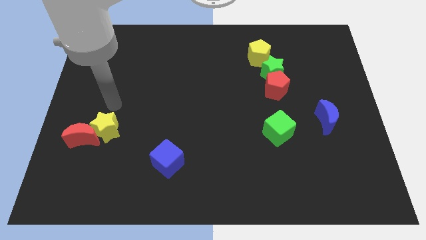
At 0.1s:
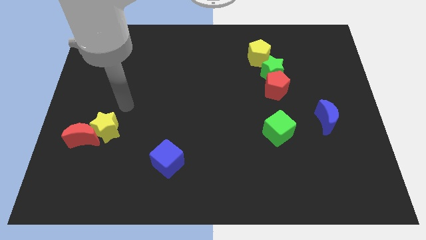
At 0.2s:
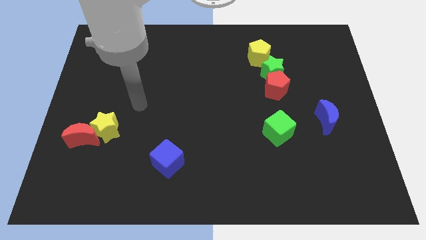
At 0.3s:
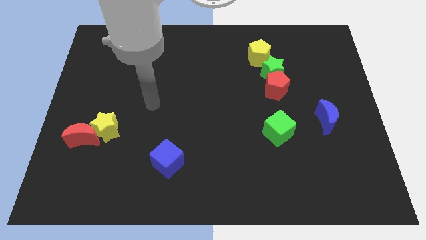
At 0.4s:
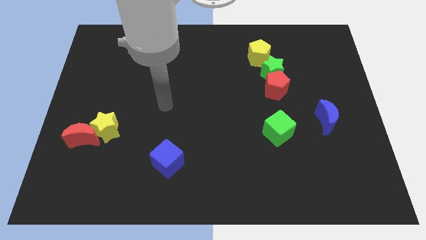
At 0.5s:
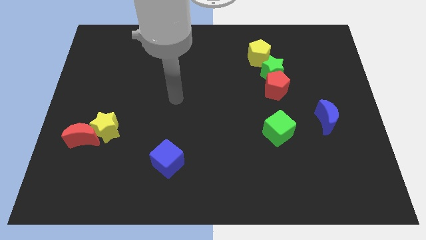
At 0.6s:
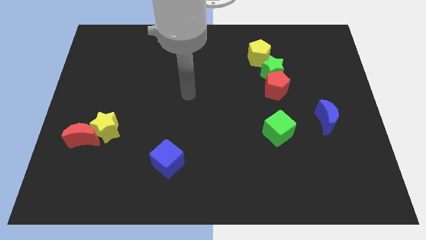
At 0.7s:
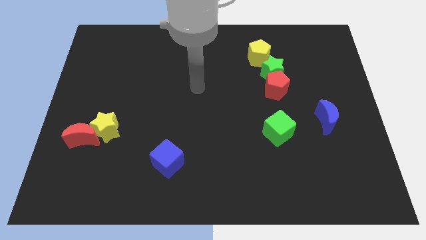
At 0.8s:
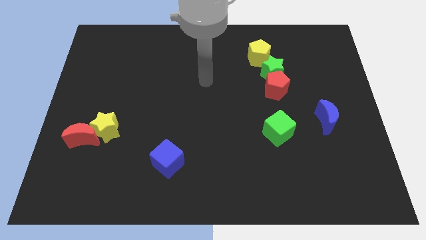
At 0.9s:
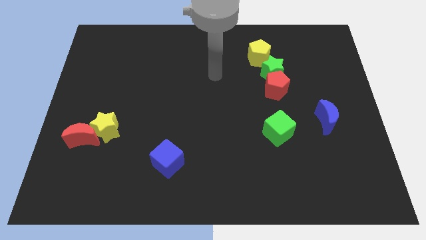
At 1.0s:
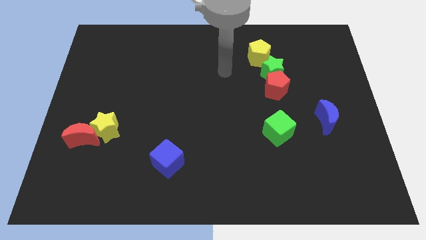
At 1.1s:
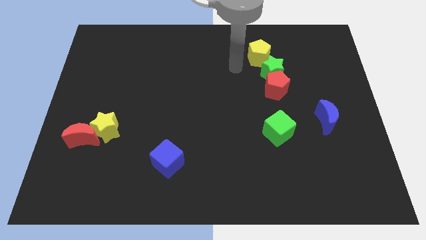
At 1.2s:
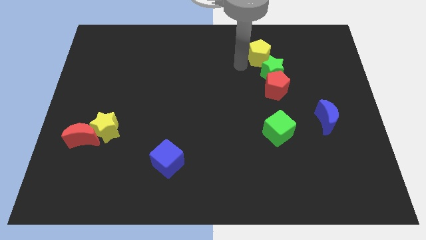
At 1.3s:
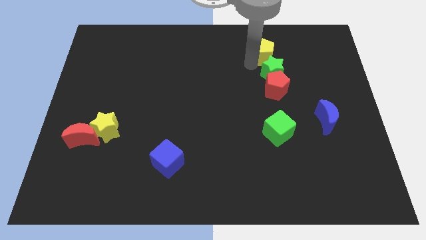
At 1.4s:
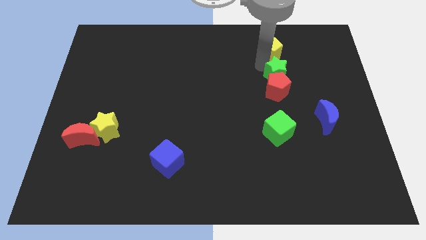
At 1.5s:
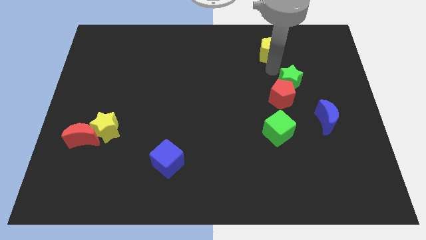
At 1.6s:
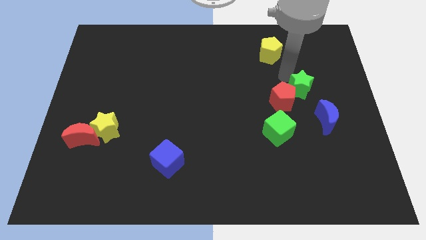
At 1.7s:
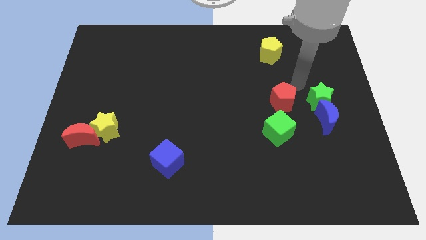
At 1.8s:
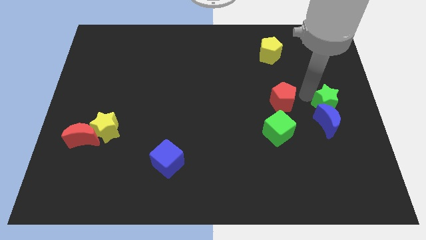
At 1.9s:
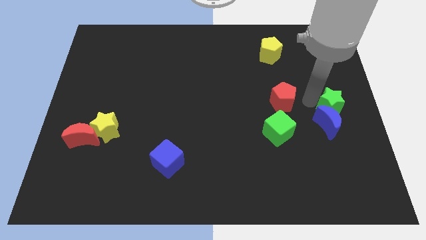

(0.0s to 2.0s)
move the red pentagon away from the green star

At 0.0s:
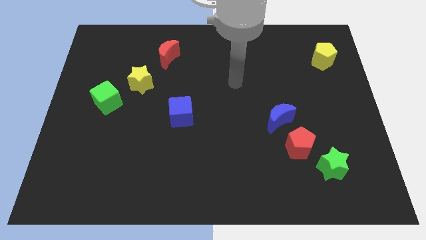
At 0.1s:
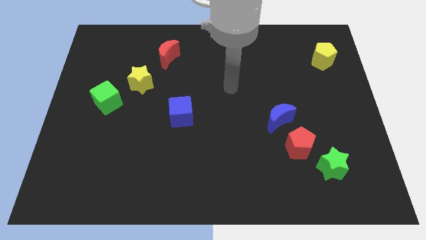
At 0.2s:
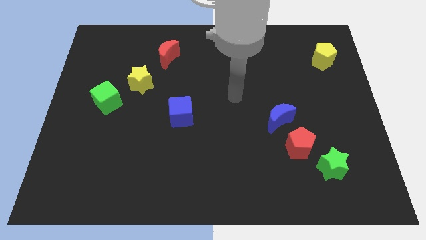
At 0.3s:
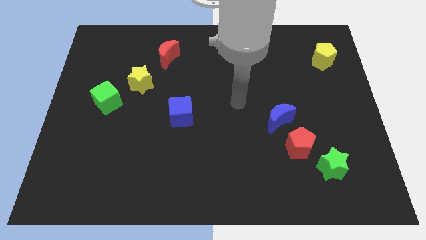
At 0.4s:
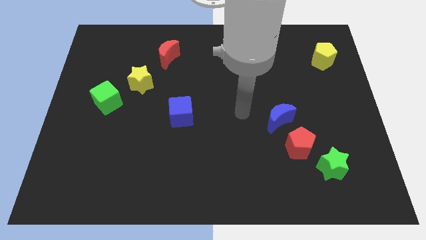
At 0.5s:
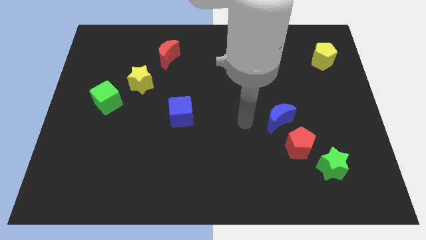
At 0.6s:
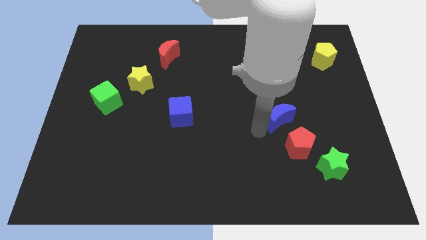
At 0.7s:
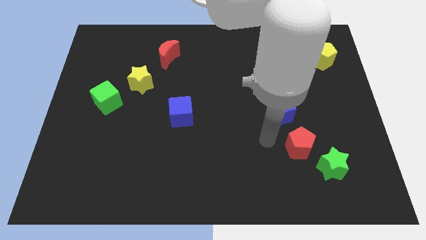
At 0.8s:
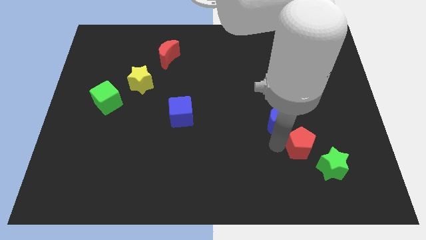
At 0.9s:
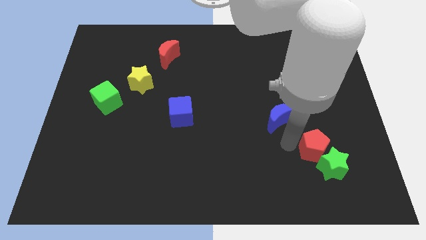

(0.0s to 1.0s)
pull the blue moon apart from the red pentagon

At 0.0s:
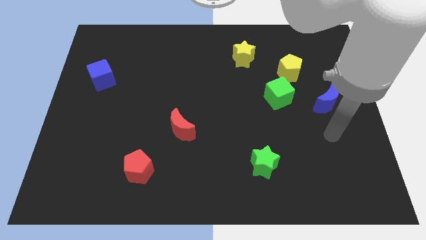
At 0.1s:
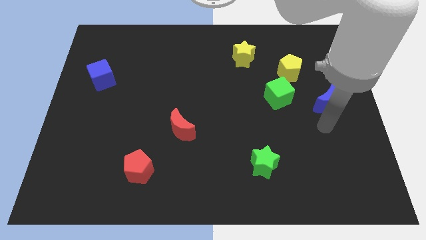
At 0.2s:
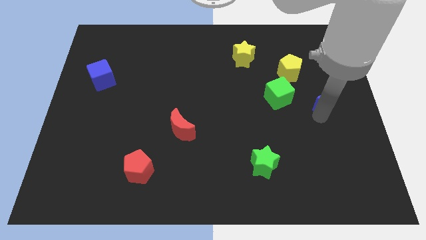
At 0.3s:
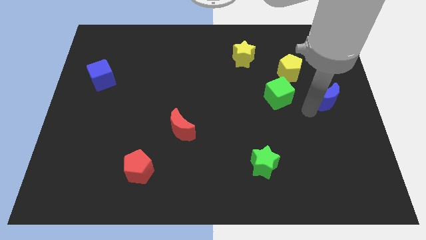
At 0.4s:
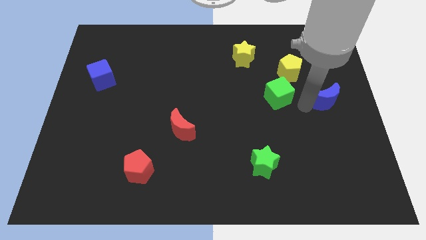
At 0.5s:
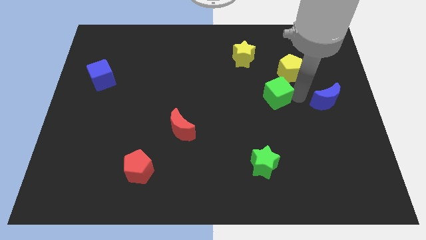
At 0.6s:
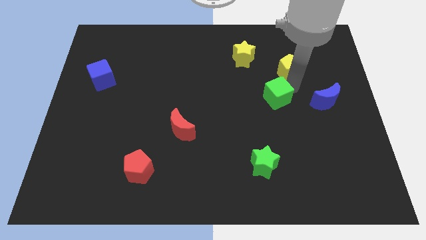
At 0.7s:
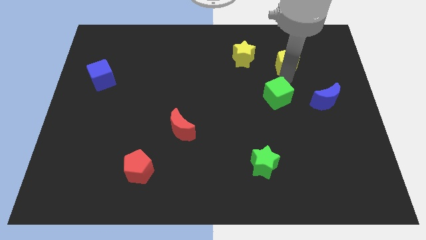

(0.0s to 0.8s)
move the green cube away from the yellow pentagon

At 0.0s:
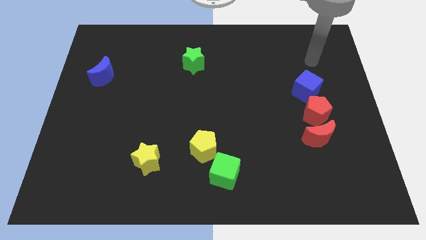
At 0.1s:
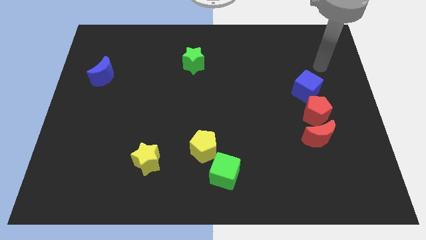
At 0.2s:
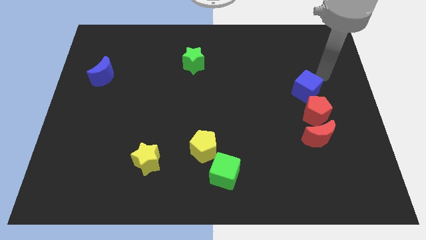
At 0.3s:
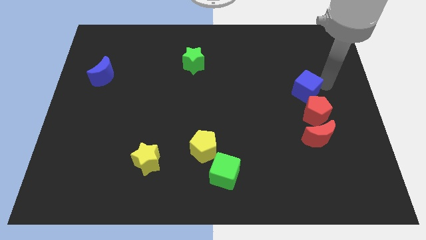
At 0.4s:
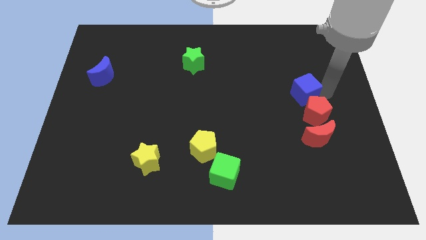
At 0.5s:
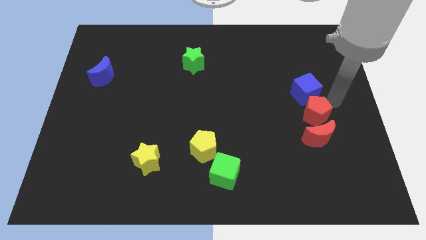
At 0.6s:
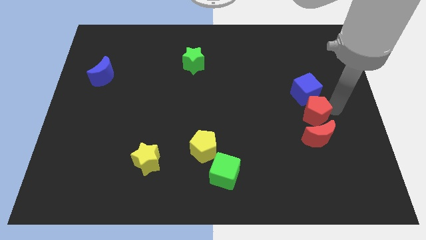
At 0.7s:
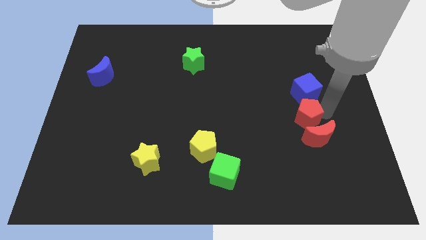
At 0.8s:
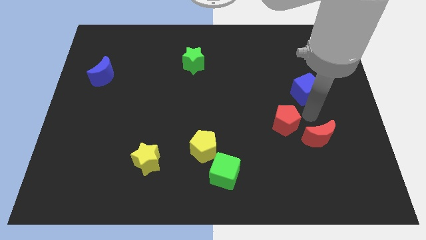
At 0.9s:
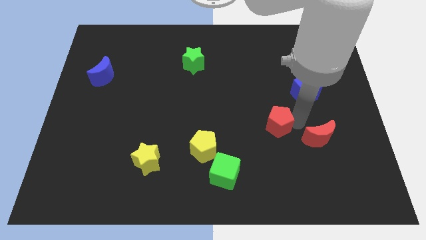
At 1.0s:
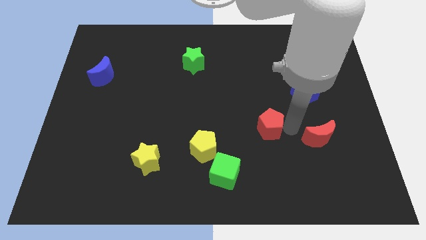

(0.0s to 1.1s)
pull the red moon apart from the red pentagon

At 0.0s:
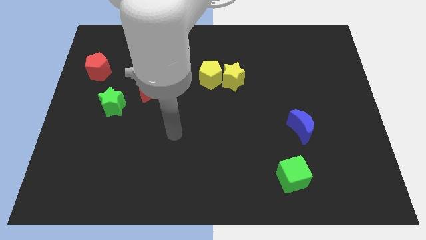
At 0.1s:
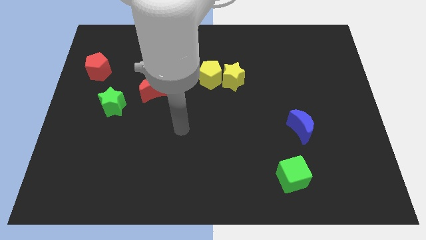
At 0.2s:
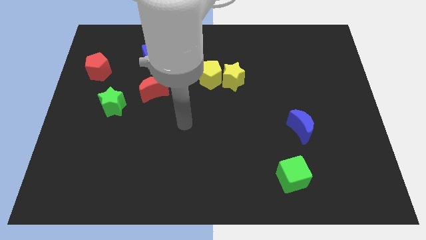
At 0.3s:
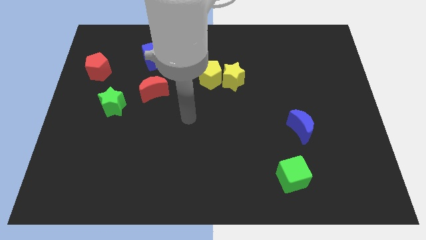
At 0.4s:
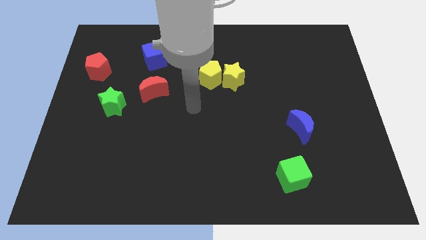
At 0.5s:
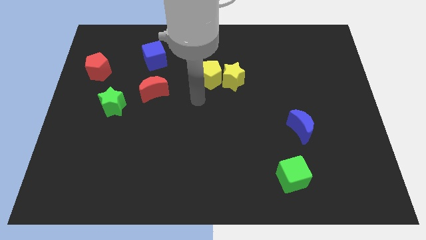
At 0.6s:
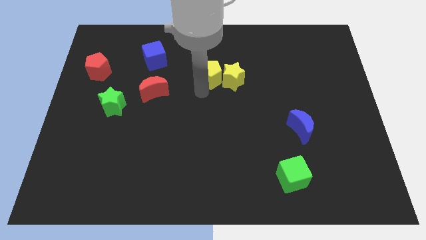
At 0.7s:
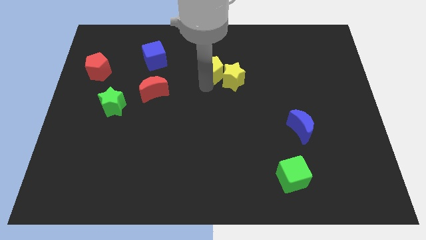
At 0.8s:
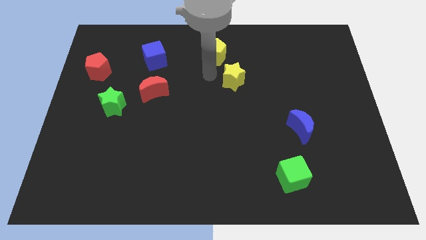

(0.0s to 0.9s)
move the yellow star away from the yellow pentagon

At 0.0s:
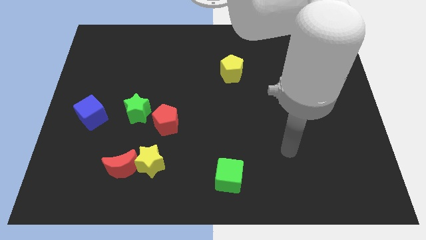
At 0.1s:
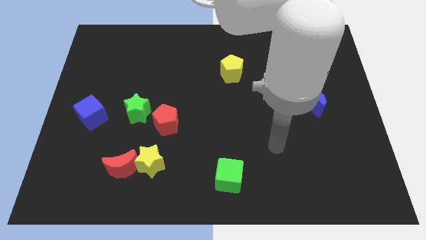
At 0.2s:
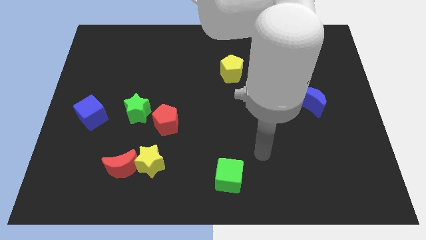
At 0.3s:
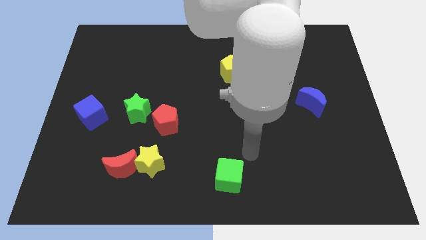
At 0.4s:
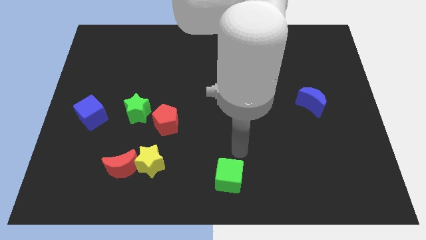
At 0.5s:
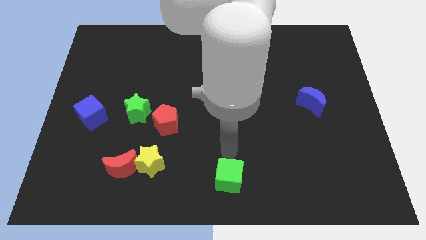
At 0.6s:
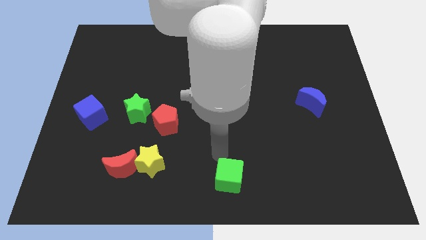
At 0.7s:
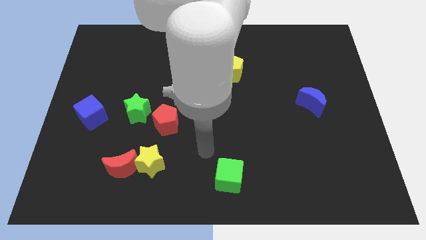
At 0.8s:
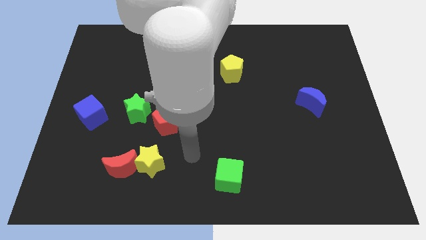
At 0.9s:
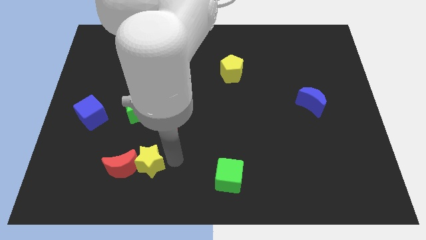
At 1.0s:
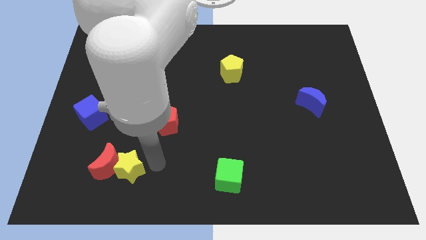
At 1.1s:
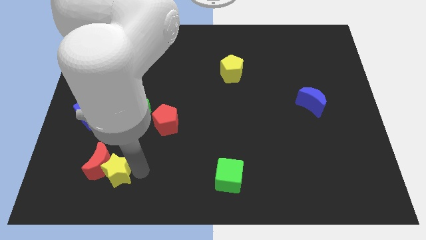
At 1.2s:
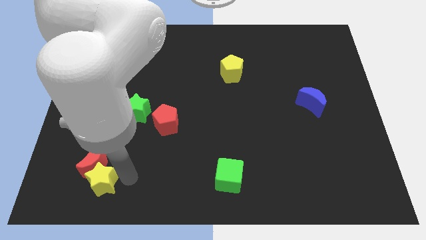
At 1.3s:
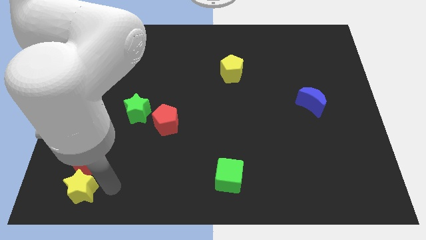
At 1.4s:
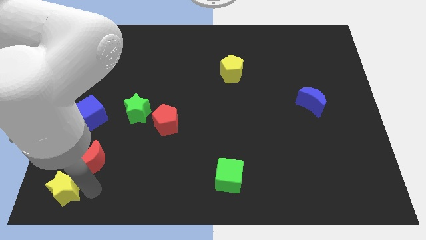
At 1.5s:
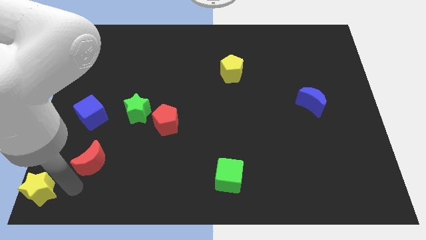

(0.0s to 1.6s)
move the red moon away from the yellow star

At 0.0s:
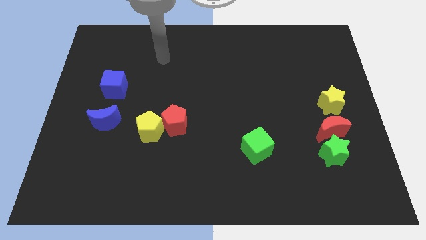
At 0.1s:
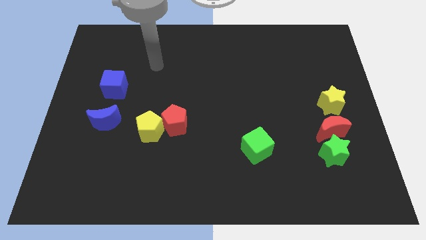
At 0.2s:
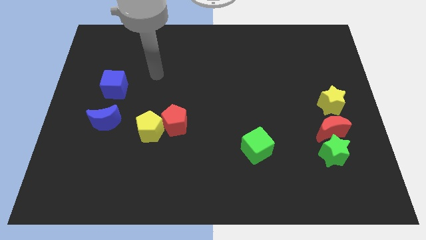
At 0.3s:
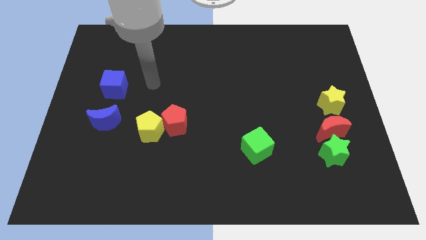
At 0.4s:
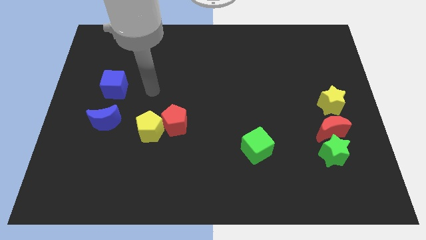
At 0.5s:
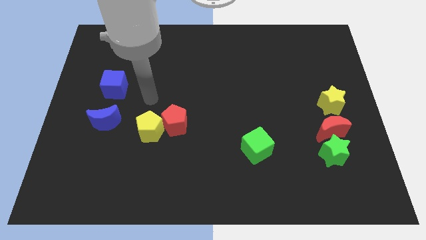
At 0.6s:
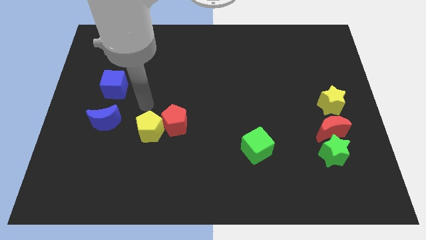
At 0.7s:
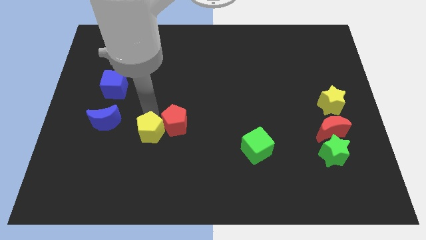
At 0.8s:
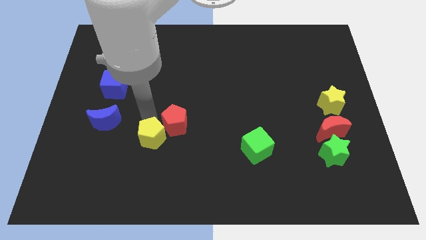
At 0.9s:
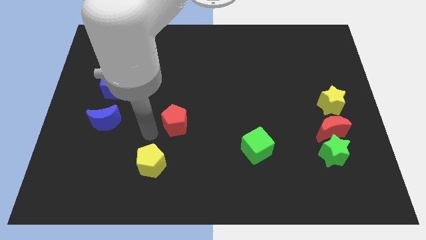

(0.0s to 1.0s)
move the red pentagon away from the yellow pentagon

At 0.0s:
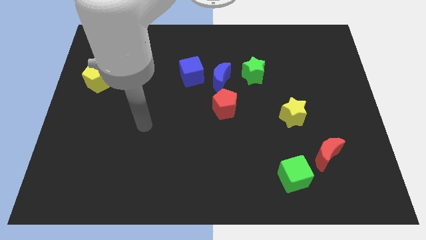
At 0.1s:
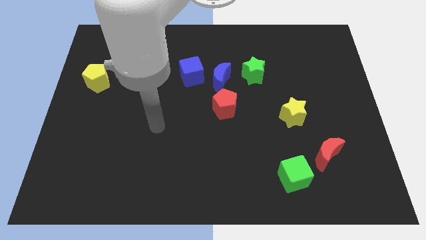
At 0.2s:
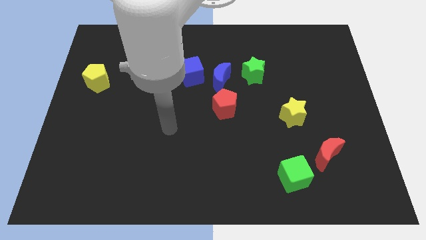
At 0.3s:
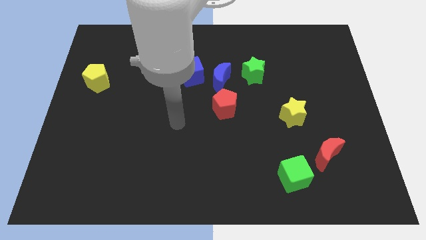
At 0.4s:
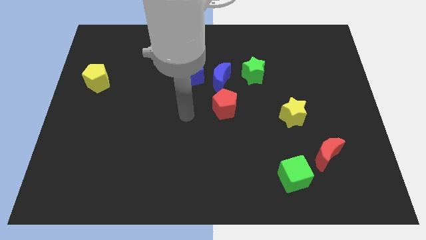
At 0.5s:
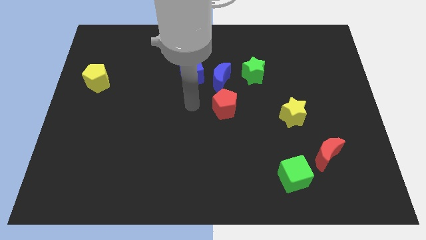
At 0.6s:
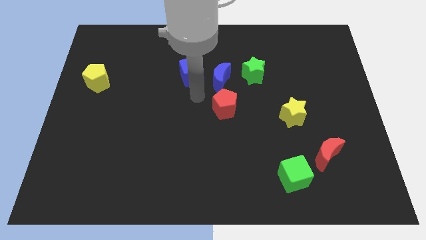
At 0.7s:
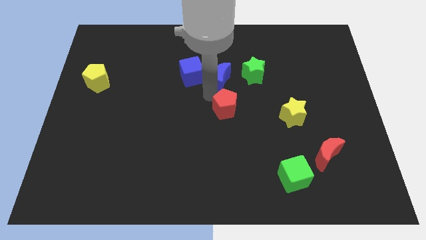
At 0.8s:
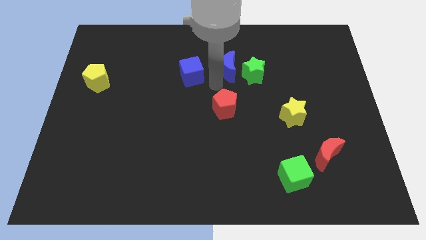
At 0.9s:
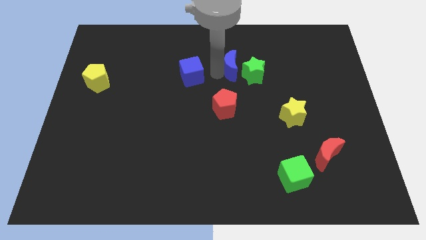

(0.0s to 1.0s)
move the blue cube away from the blue moon
